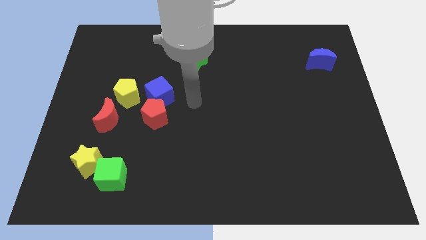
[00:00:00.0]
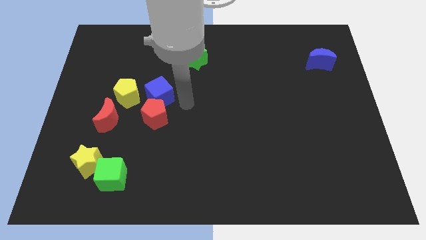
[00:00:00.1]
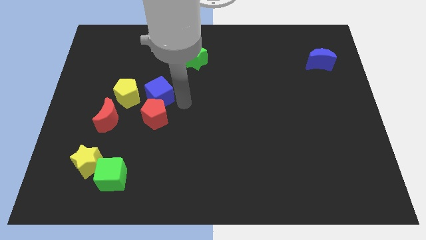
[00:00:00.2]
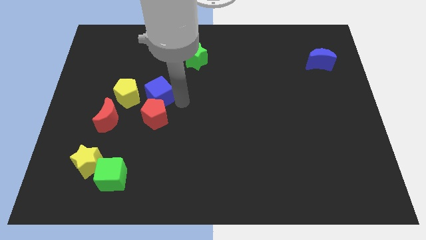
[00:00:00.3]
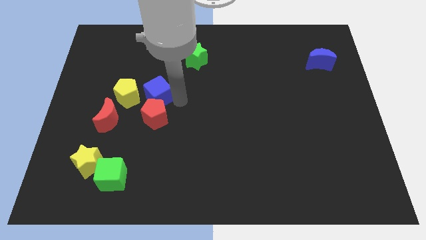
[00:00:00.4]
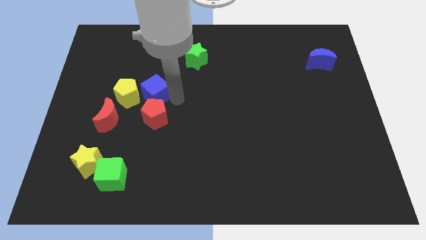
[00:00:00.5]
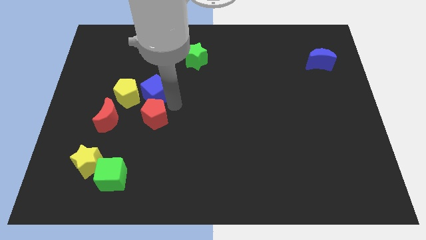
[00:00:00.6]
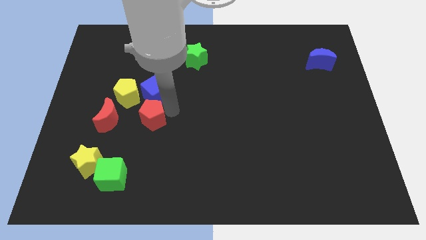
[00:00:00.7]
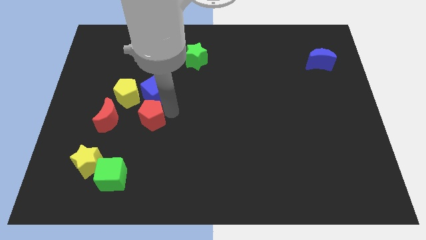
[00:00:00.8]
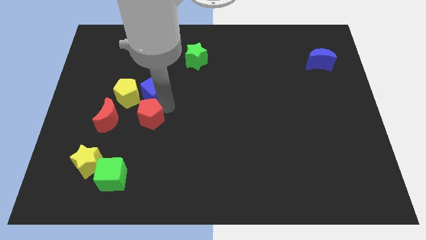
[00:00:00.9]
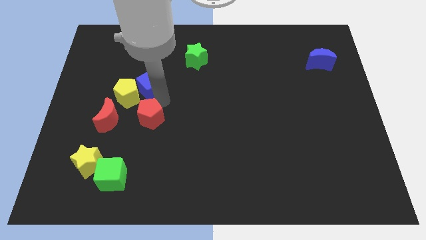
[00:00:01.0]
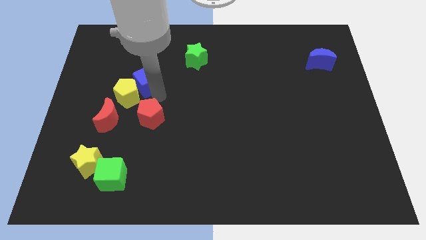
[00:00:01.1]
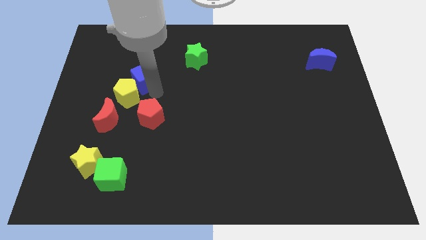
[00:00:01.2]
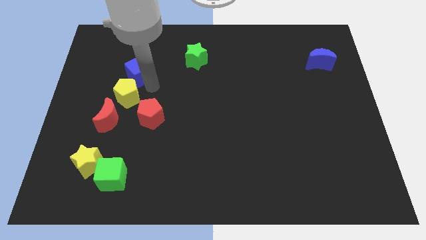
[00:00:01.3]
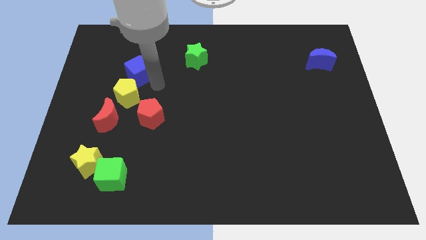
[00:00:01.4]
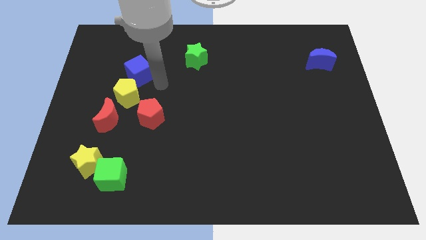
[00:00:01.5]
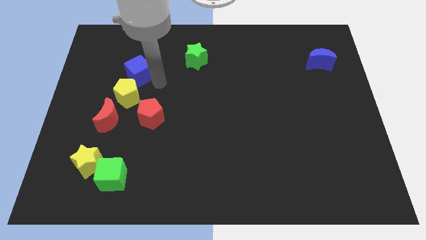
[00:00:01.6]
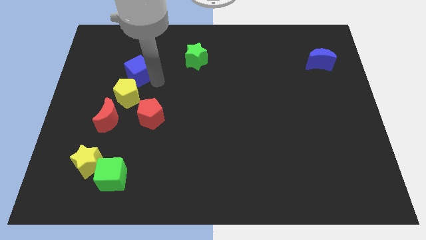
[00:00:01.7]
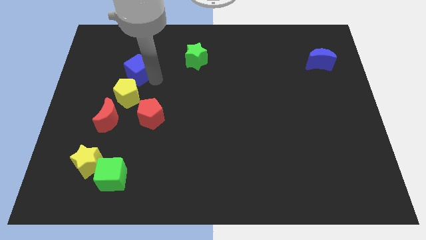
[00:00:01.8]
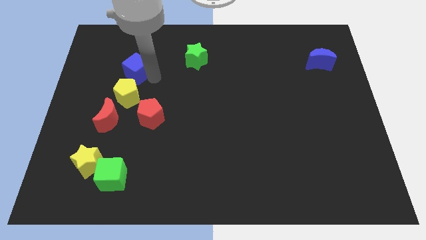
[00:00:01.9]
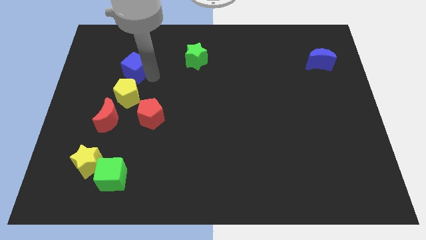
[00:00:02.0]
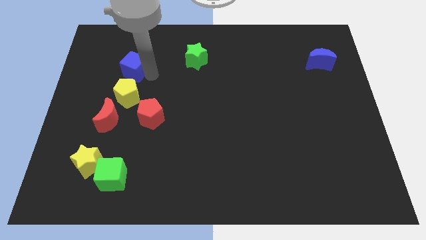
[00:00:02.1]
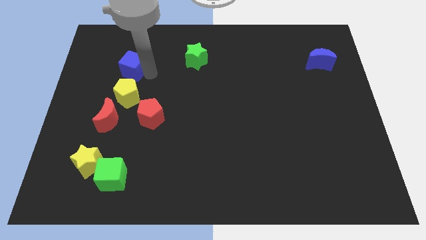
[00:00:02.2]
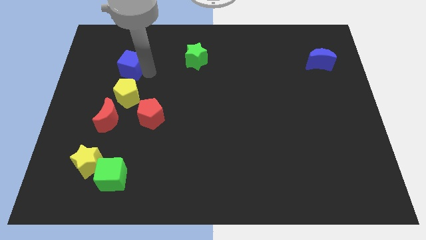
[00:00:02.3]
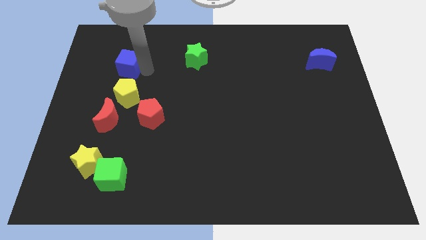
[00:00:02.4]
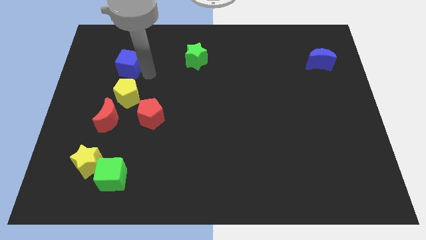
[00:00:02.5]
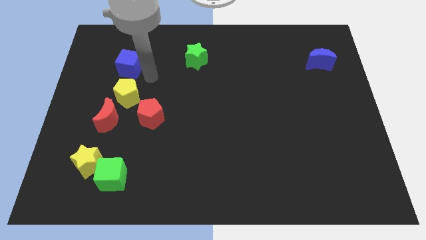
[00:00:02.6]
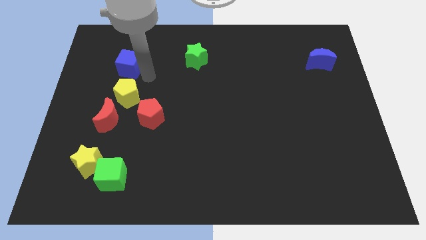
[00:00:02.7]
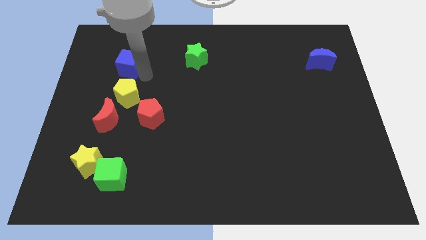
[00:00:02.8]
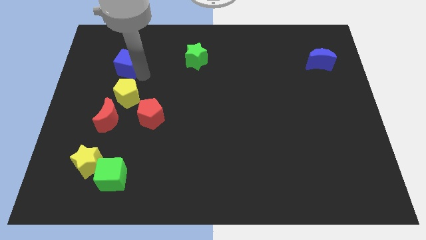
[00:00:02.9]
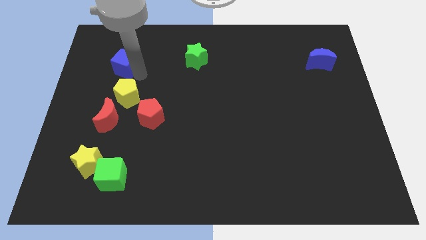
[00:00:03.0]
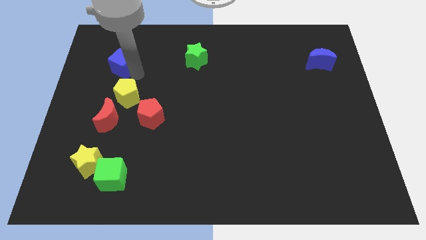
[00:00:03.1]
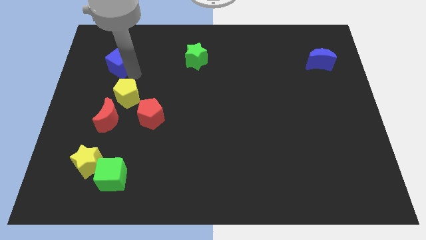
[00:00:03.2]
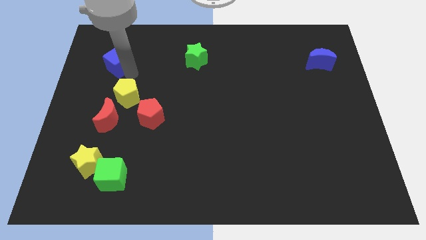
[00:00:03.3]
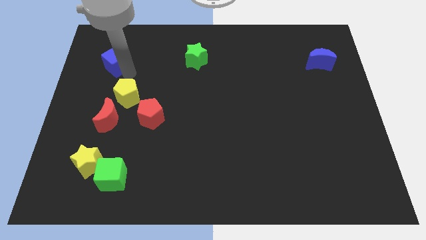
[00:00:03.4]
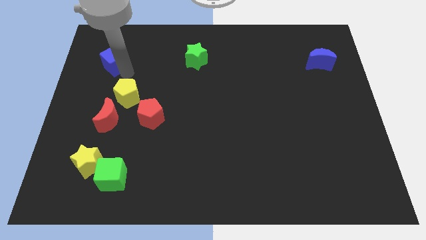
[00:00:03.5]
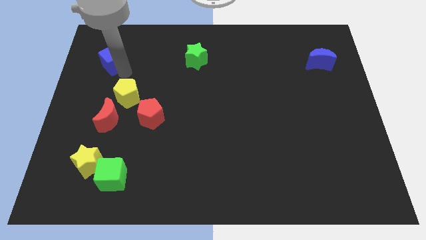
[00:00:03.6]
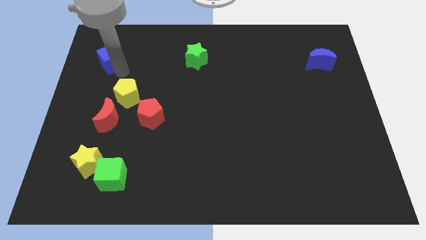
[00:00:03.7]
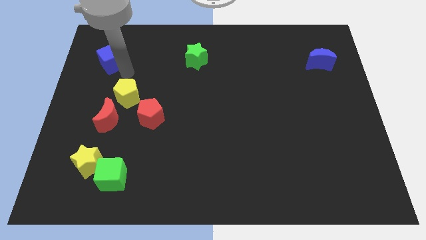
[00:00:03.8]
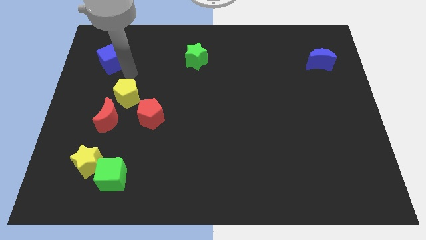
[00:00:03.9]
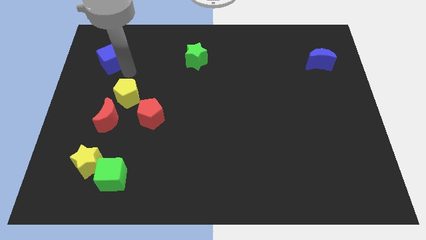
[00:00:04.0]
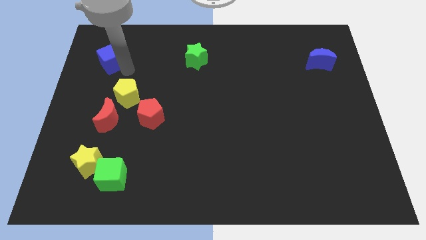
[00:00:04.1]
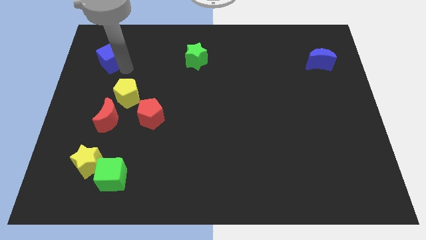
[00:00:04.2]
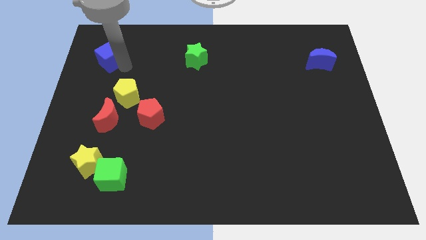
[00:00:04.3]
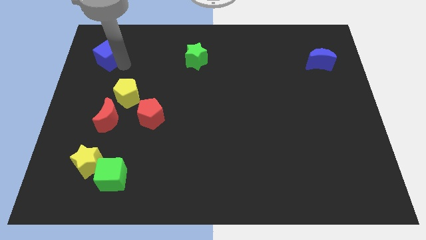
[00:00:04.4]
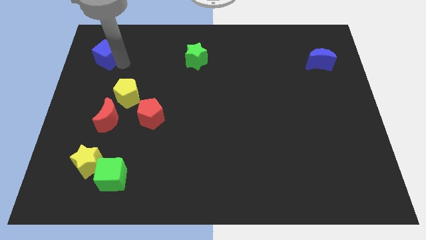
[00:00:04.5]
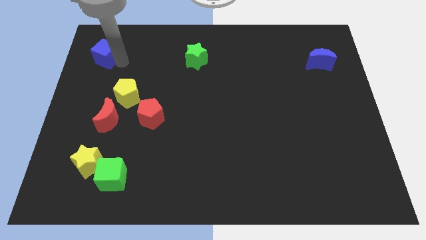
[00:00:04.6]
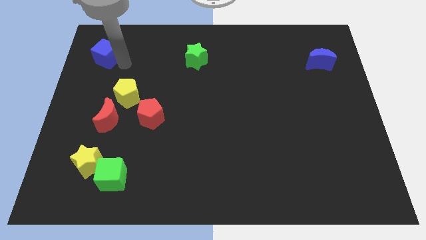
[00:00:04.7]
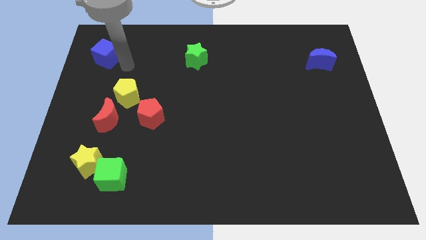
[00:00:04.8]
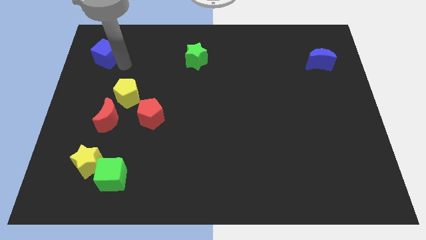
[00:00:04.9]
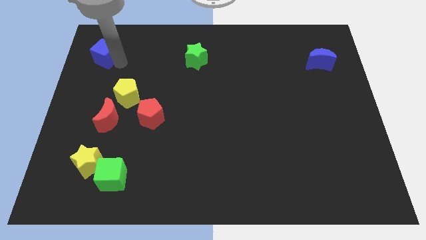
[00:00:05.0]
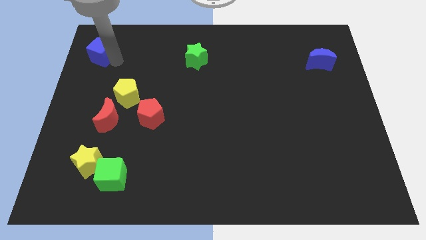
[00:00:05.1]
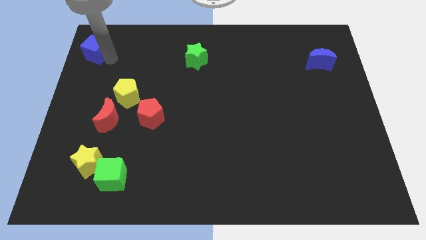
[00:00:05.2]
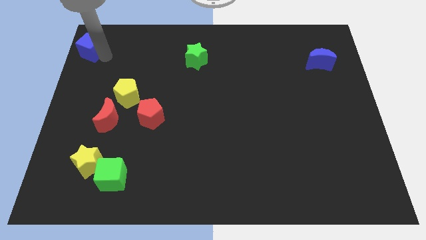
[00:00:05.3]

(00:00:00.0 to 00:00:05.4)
put the blue cube to the top left of the board
